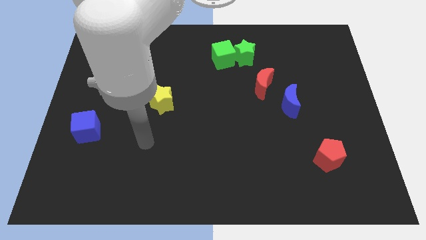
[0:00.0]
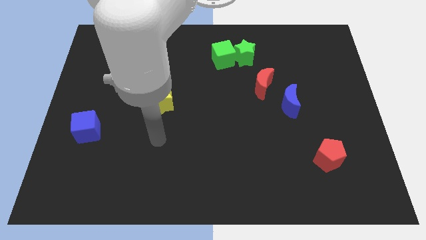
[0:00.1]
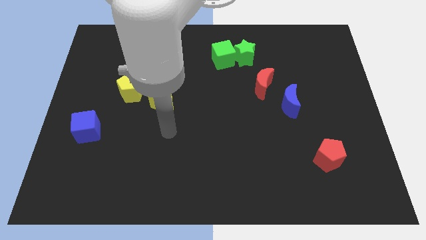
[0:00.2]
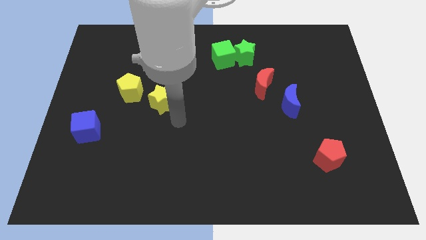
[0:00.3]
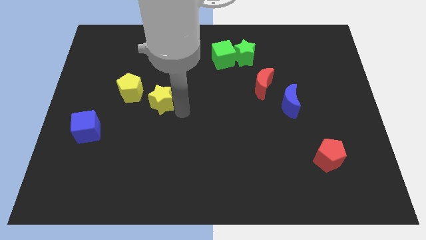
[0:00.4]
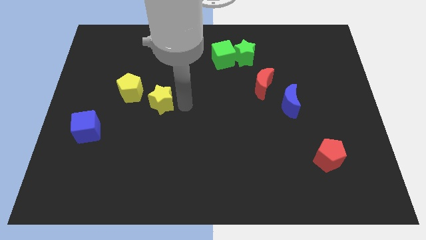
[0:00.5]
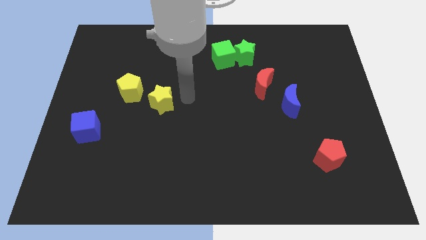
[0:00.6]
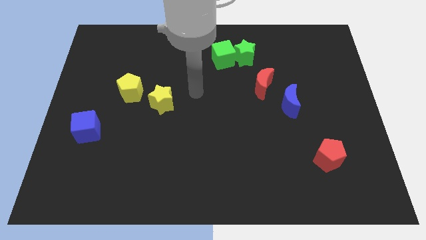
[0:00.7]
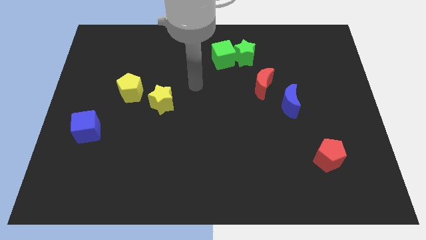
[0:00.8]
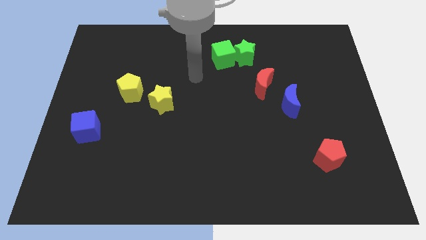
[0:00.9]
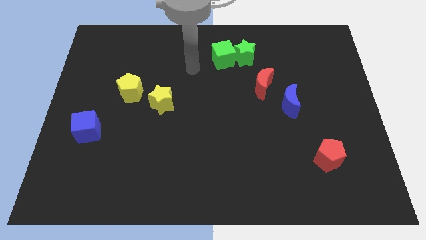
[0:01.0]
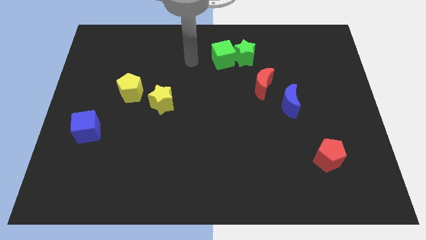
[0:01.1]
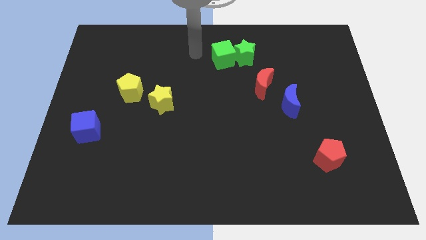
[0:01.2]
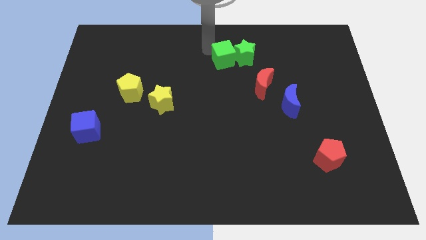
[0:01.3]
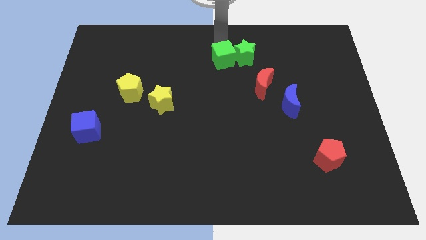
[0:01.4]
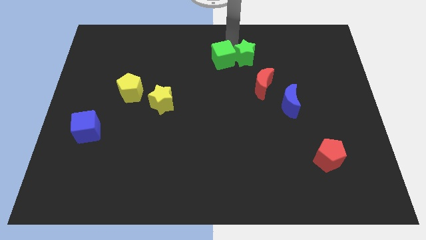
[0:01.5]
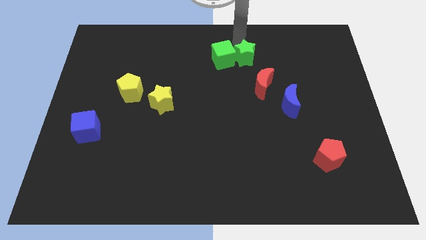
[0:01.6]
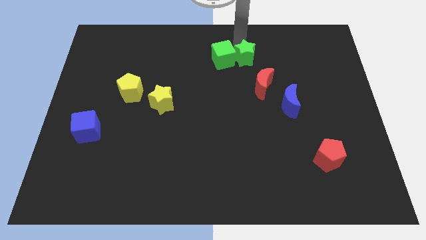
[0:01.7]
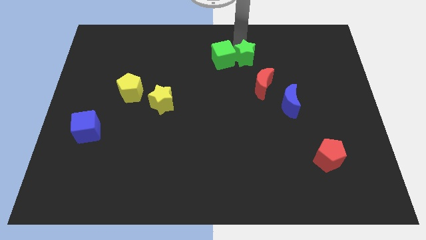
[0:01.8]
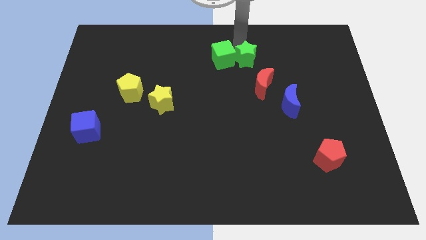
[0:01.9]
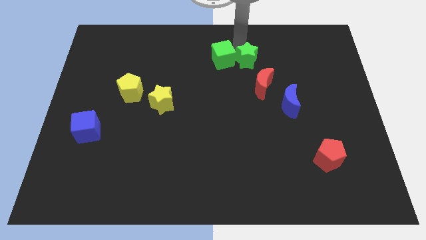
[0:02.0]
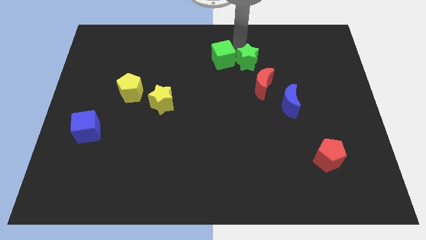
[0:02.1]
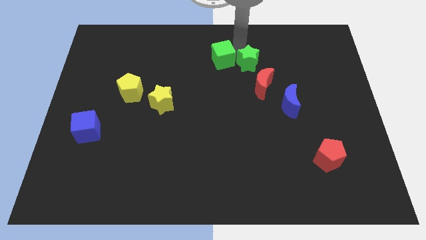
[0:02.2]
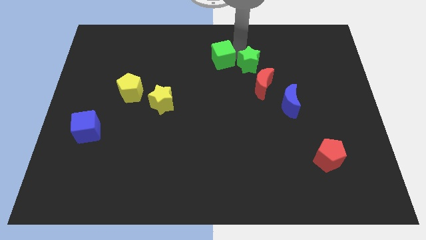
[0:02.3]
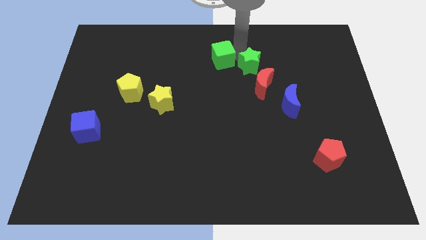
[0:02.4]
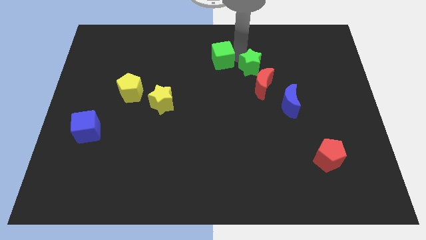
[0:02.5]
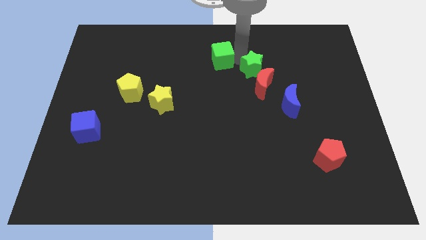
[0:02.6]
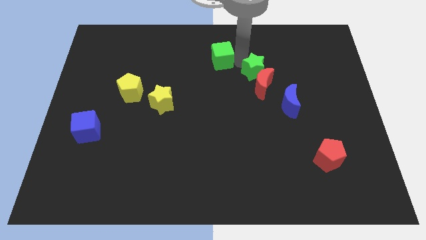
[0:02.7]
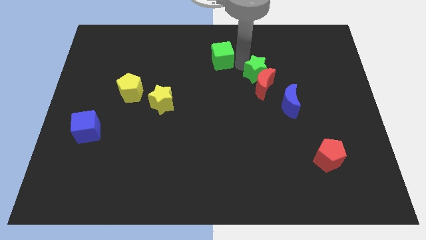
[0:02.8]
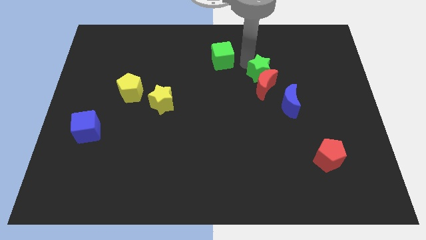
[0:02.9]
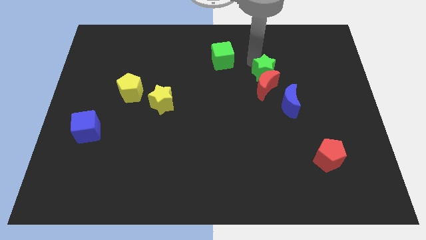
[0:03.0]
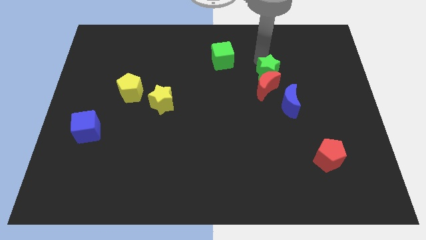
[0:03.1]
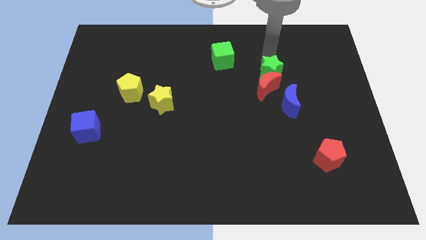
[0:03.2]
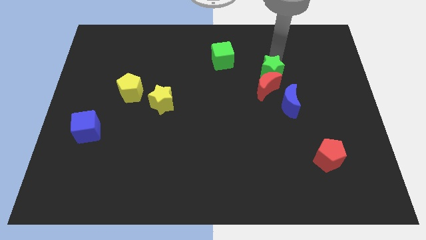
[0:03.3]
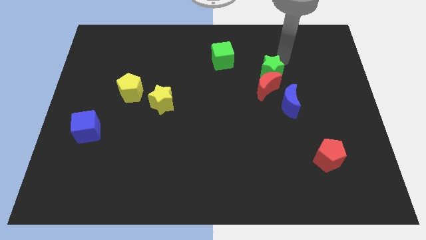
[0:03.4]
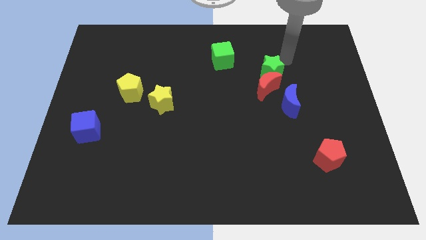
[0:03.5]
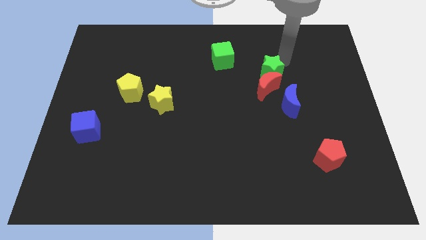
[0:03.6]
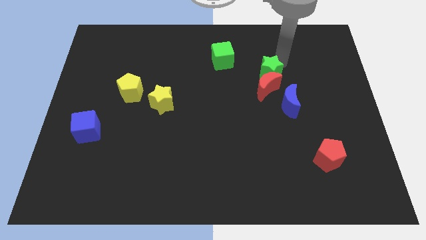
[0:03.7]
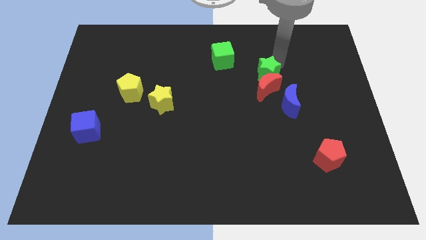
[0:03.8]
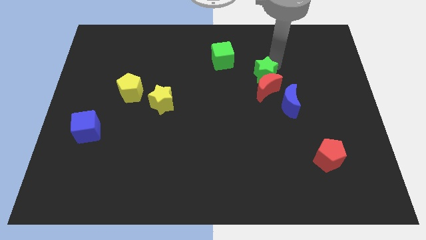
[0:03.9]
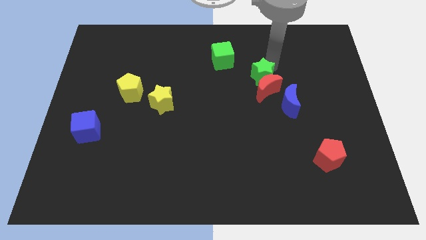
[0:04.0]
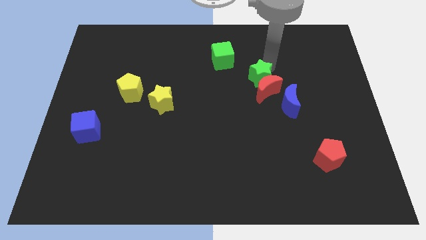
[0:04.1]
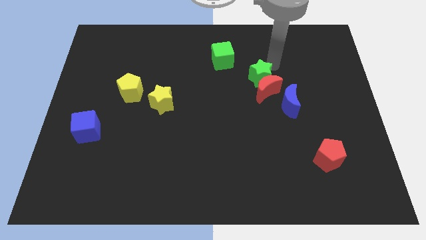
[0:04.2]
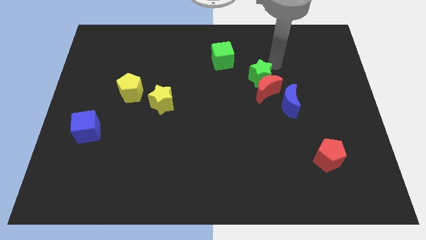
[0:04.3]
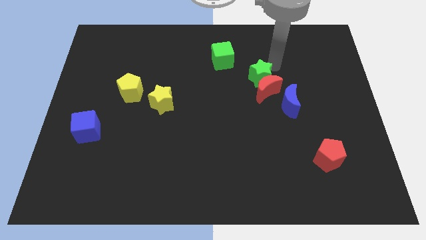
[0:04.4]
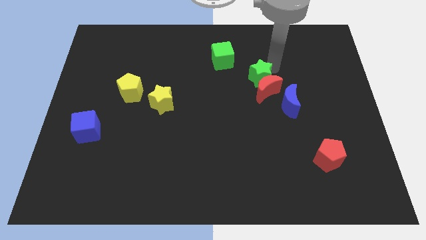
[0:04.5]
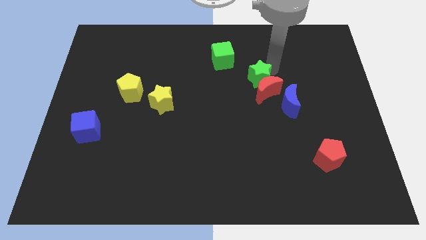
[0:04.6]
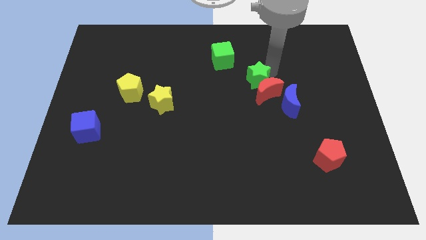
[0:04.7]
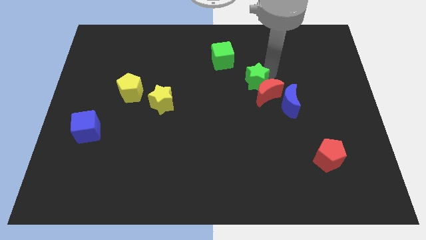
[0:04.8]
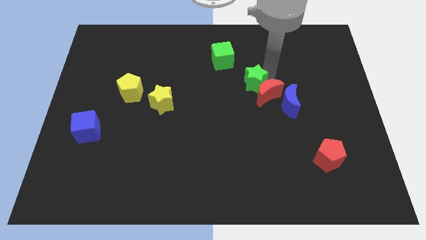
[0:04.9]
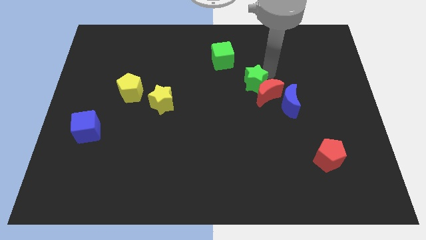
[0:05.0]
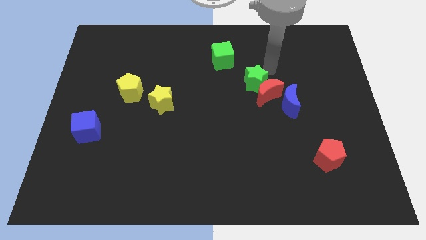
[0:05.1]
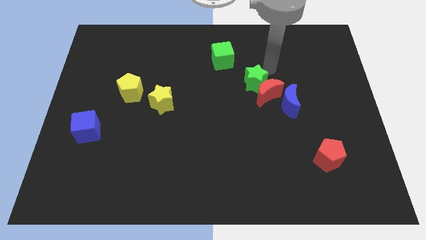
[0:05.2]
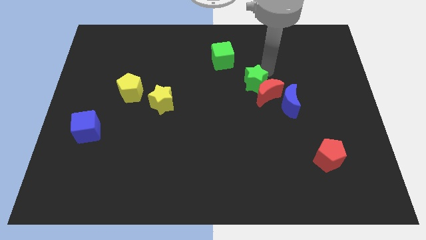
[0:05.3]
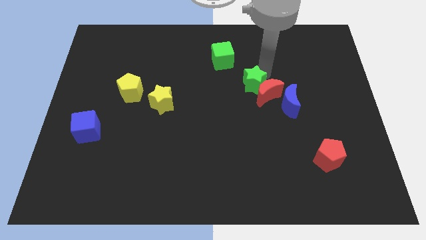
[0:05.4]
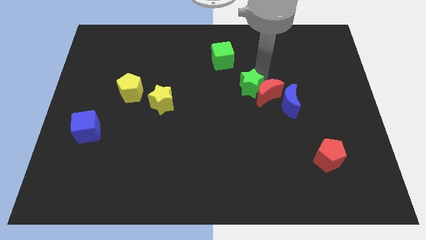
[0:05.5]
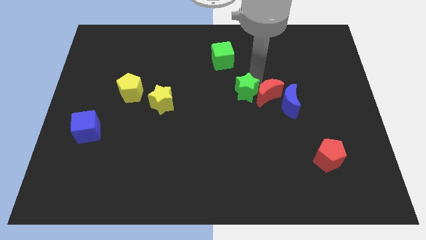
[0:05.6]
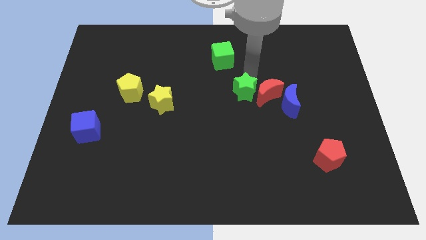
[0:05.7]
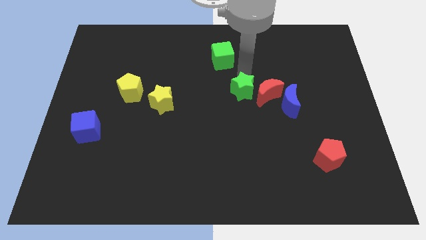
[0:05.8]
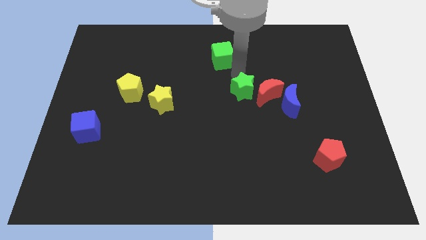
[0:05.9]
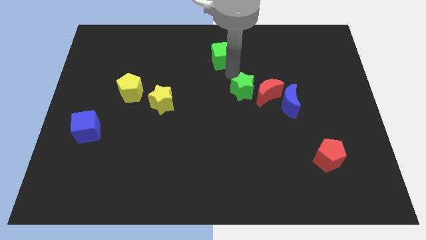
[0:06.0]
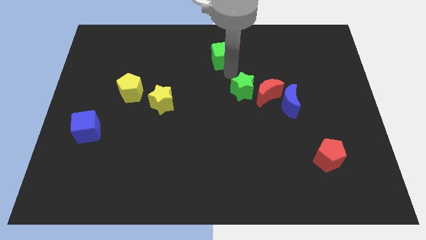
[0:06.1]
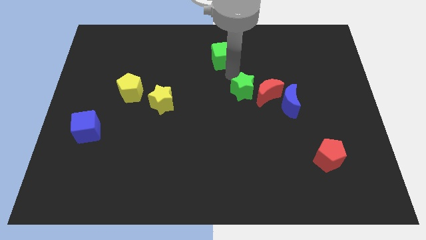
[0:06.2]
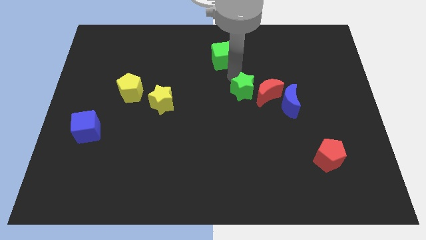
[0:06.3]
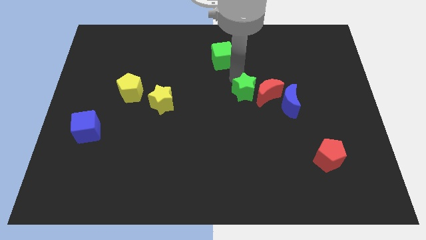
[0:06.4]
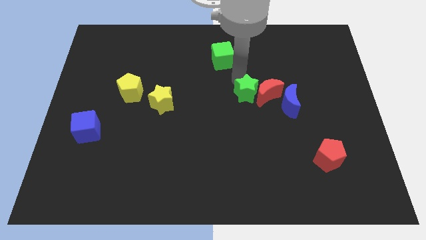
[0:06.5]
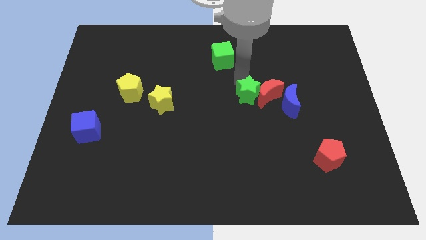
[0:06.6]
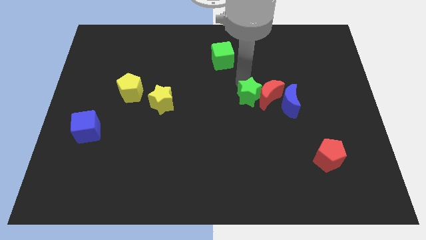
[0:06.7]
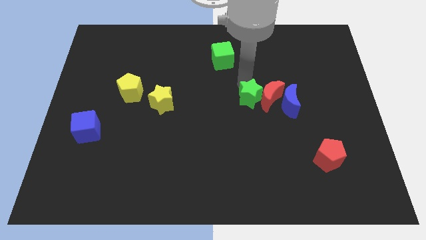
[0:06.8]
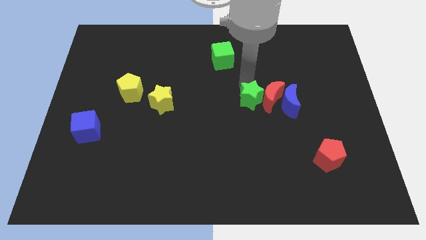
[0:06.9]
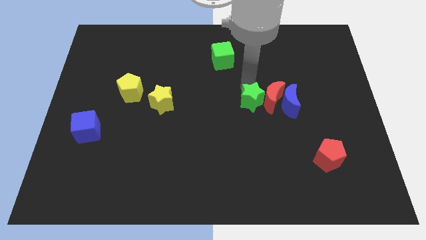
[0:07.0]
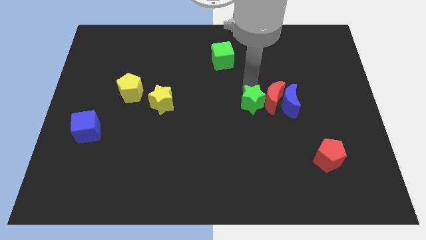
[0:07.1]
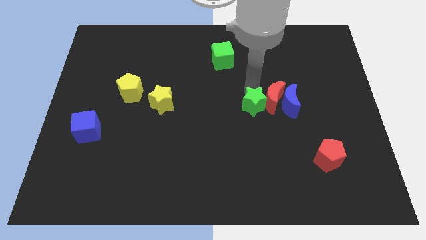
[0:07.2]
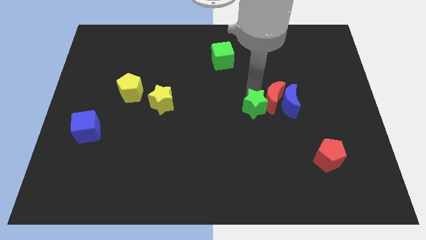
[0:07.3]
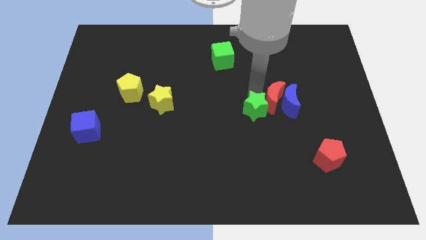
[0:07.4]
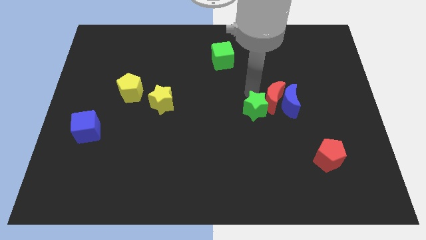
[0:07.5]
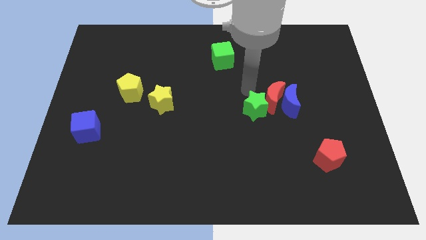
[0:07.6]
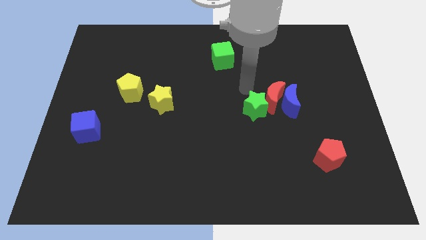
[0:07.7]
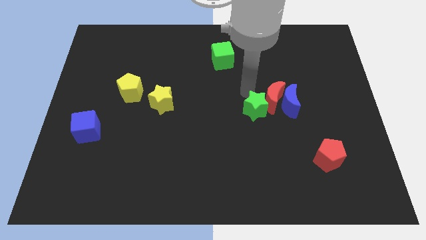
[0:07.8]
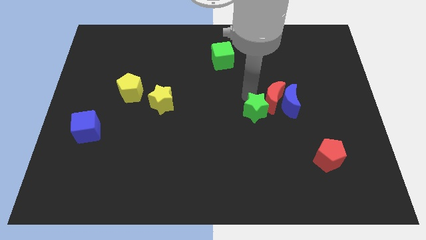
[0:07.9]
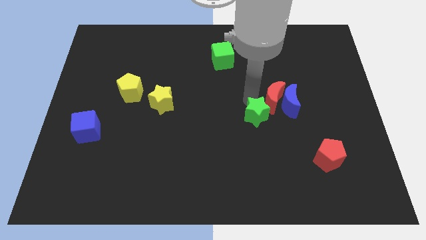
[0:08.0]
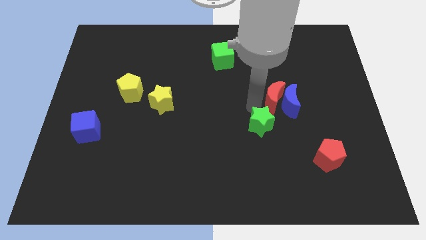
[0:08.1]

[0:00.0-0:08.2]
slide the green star downwards
